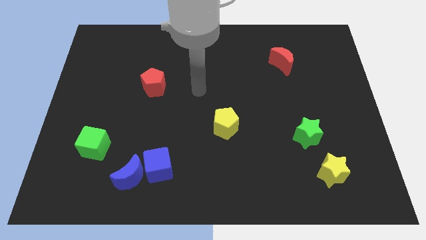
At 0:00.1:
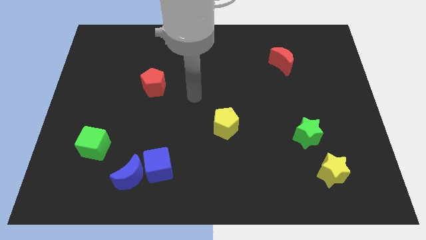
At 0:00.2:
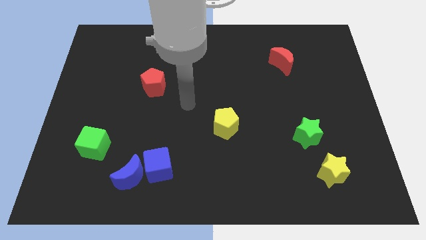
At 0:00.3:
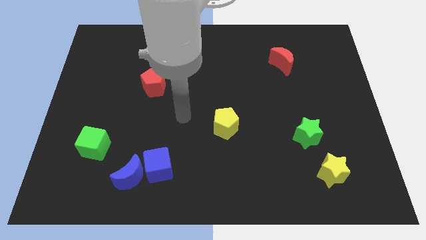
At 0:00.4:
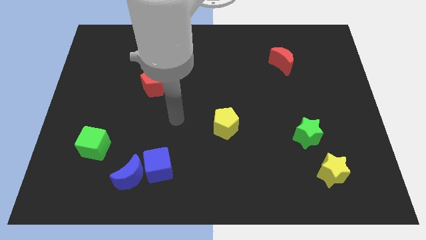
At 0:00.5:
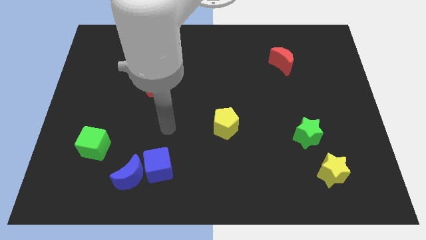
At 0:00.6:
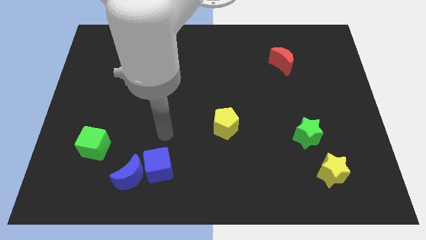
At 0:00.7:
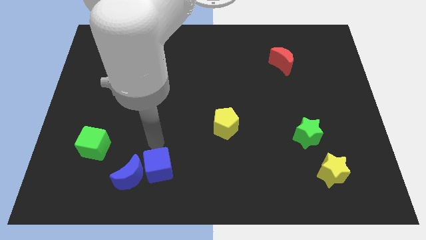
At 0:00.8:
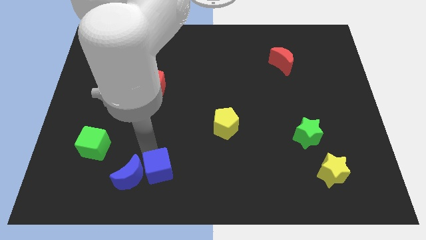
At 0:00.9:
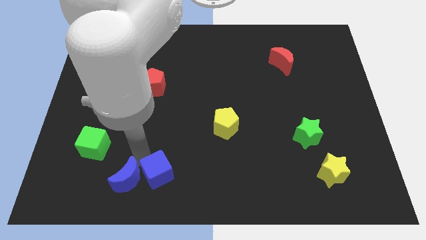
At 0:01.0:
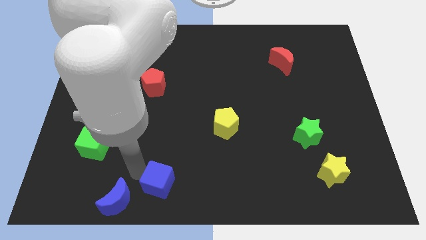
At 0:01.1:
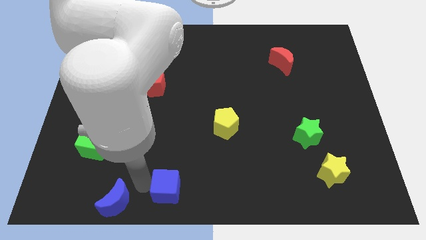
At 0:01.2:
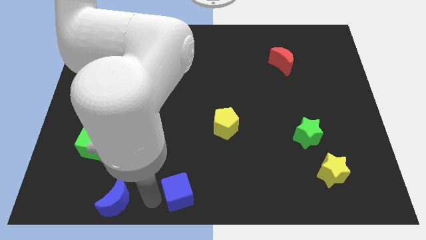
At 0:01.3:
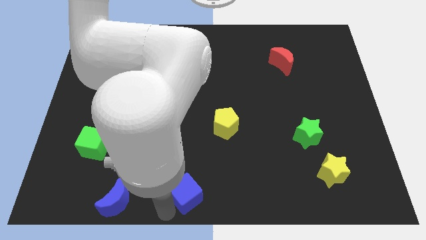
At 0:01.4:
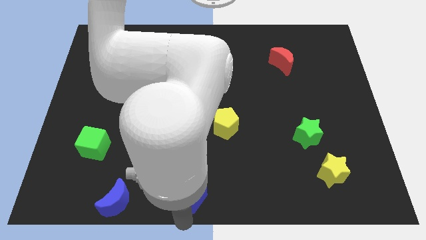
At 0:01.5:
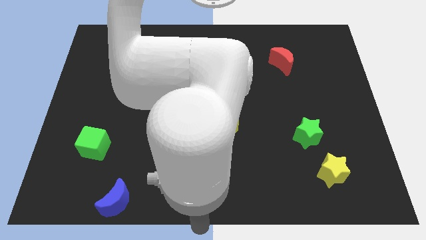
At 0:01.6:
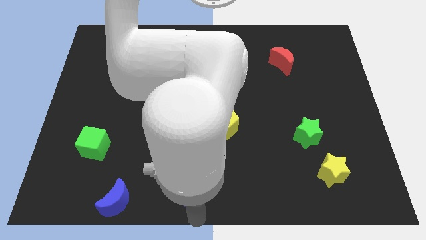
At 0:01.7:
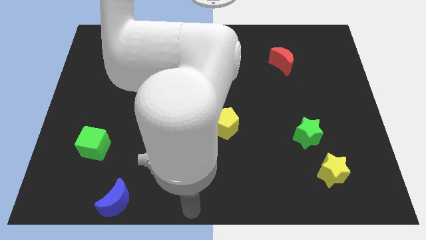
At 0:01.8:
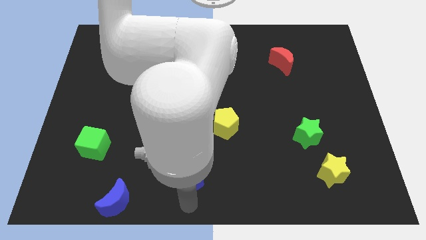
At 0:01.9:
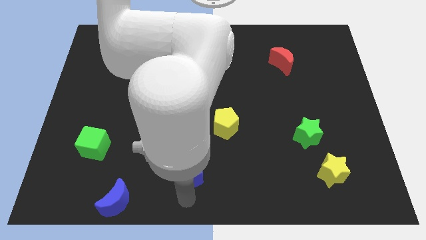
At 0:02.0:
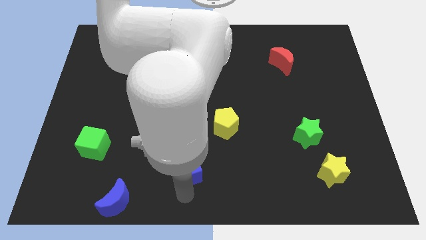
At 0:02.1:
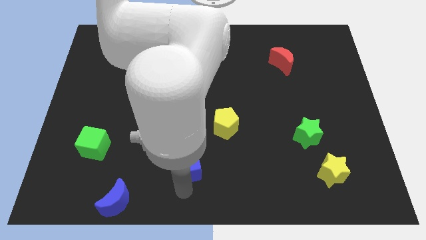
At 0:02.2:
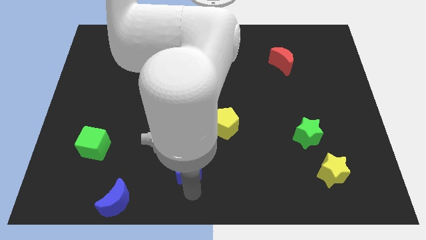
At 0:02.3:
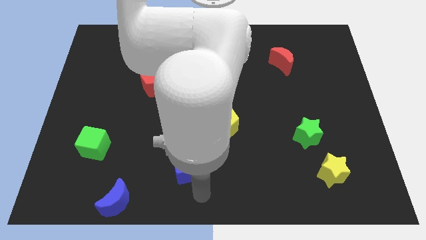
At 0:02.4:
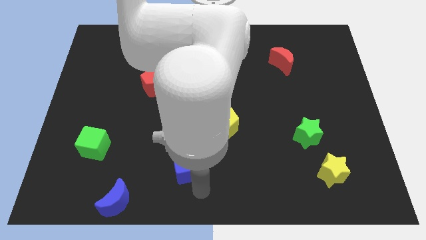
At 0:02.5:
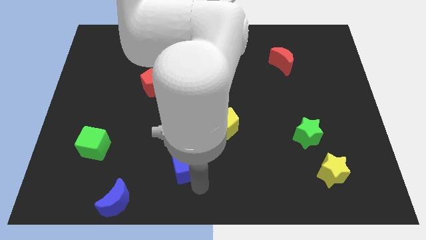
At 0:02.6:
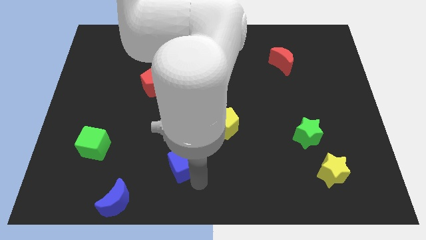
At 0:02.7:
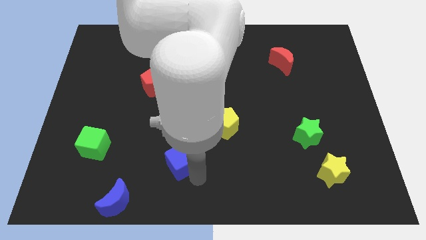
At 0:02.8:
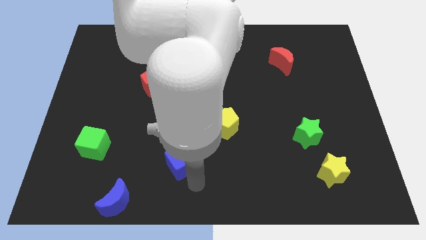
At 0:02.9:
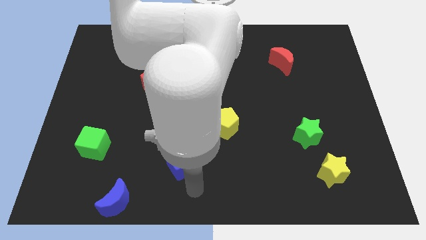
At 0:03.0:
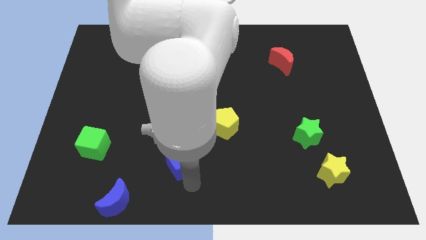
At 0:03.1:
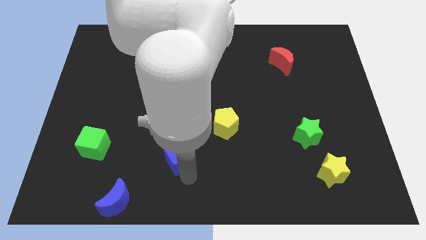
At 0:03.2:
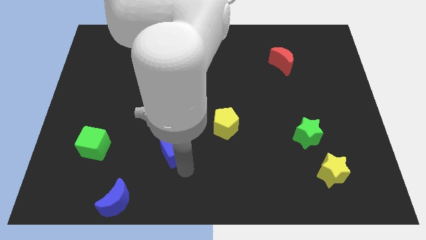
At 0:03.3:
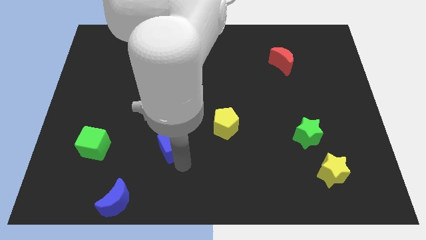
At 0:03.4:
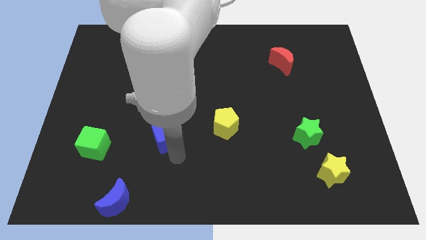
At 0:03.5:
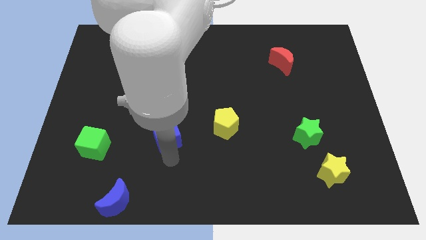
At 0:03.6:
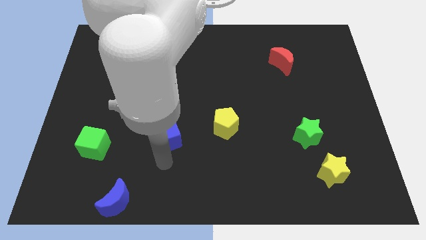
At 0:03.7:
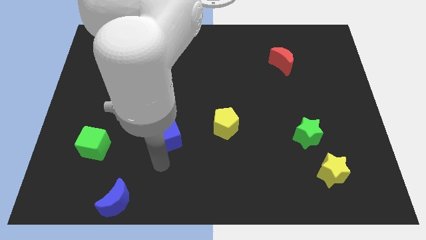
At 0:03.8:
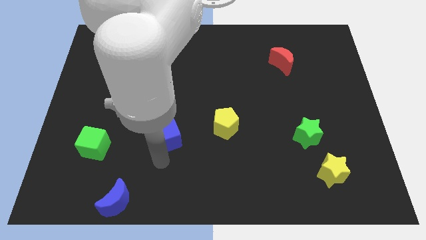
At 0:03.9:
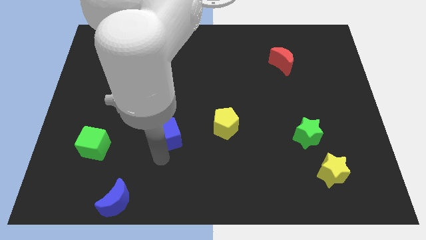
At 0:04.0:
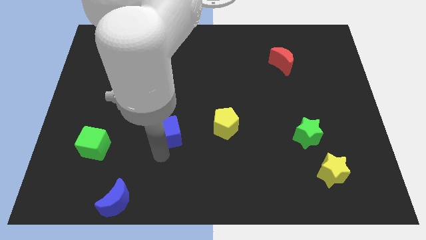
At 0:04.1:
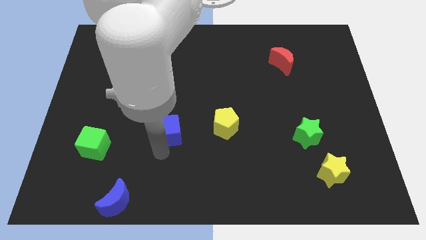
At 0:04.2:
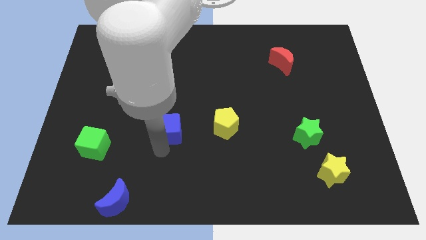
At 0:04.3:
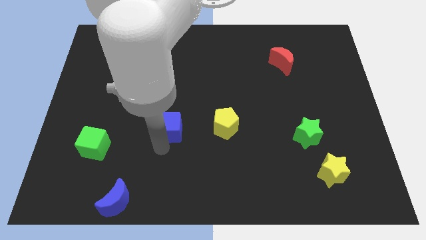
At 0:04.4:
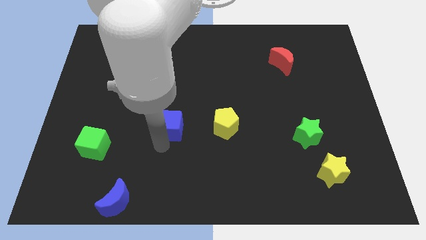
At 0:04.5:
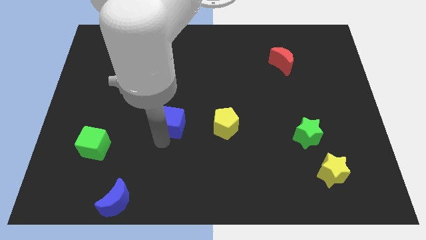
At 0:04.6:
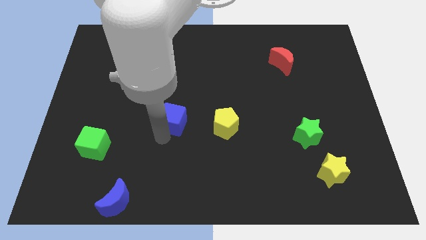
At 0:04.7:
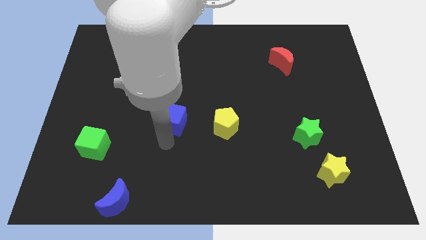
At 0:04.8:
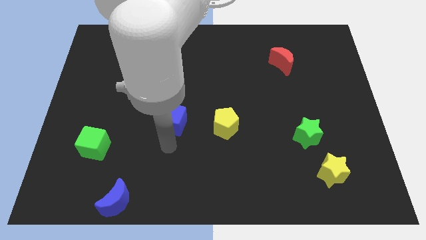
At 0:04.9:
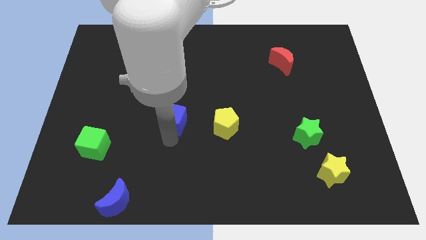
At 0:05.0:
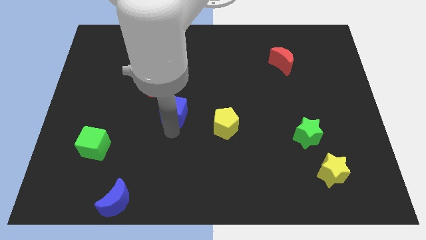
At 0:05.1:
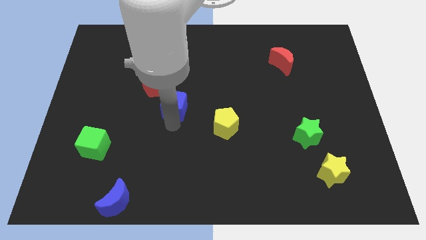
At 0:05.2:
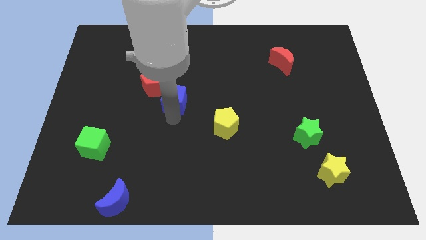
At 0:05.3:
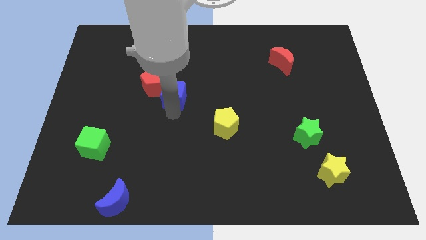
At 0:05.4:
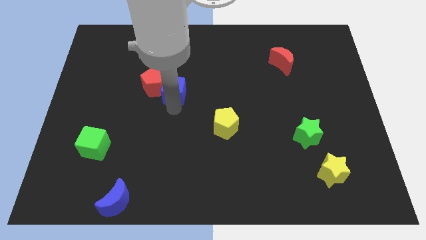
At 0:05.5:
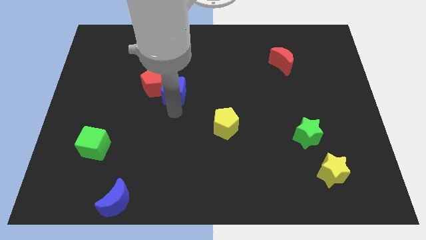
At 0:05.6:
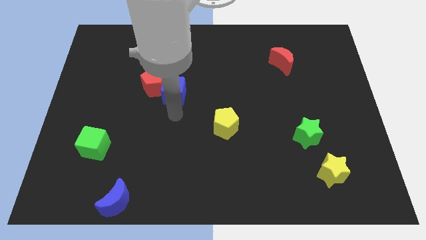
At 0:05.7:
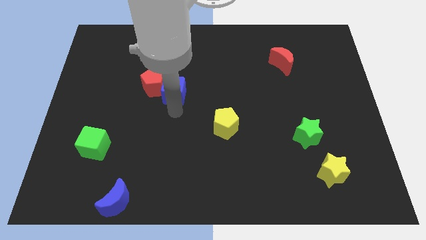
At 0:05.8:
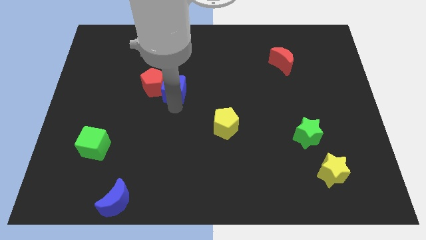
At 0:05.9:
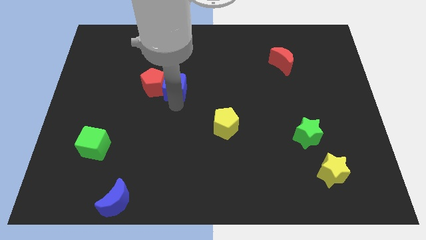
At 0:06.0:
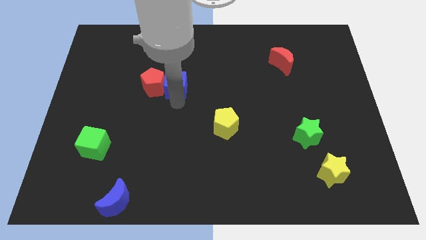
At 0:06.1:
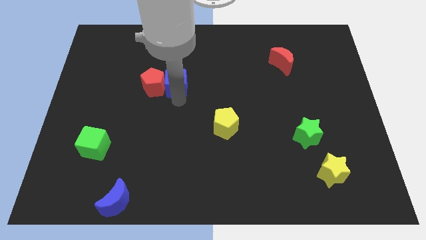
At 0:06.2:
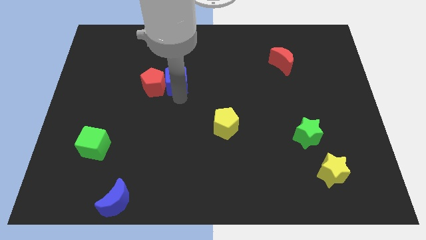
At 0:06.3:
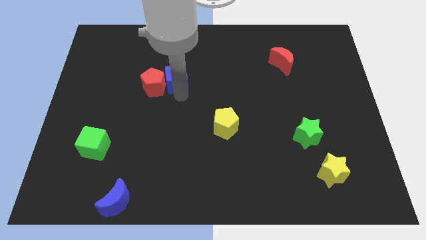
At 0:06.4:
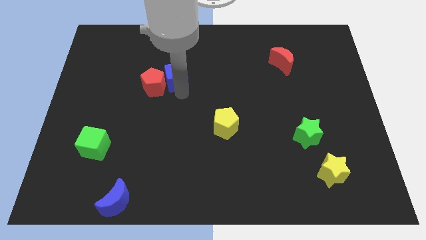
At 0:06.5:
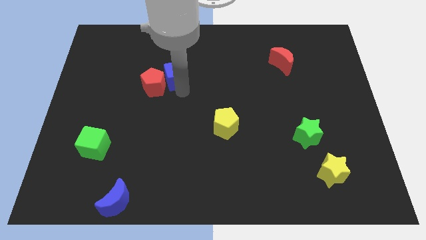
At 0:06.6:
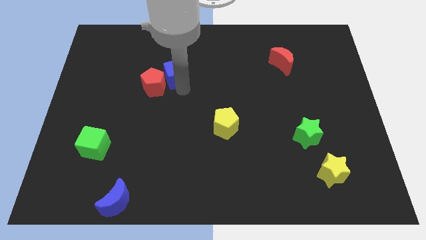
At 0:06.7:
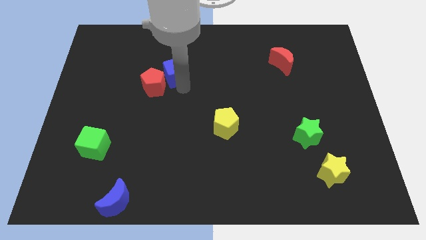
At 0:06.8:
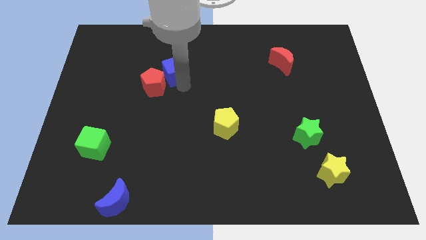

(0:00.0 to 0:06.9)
move the blue cube to the top side of the red pentagon

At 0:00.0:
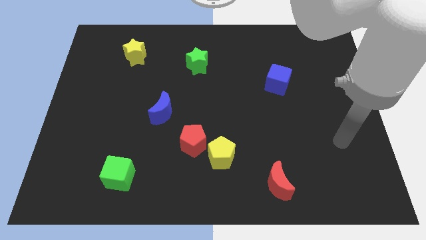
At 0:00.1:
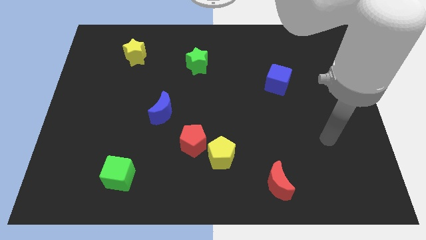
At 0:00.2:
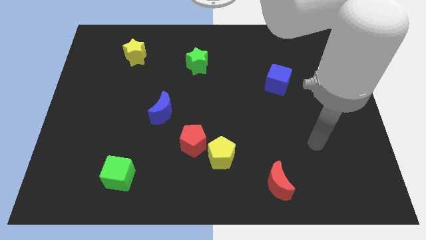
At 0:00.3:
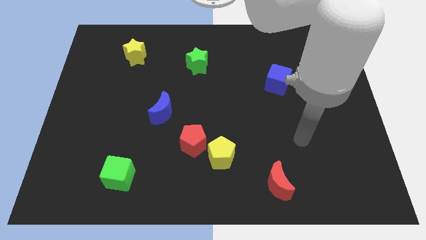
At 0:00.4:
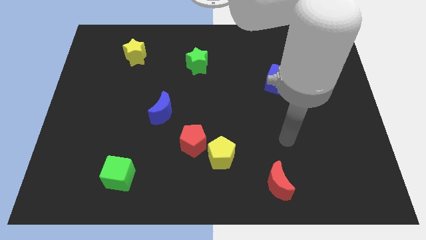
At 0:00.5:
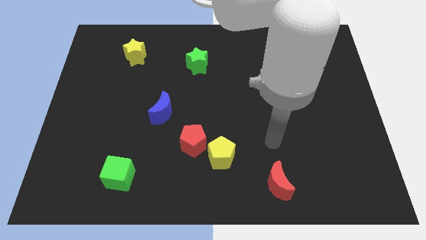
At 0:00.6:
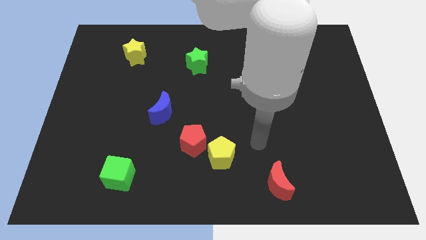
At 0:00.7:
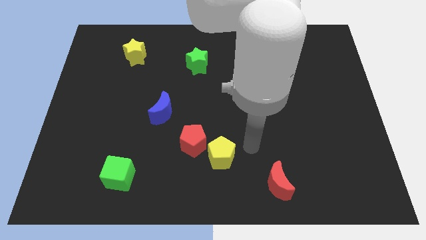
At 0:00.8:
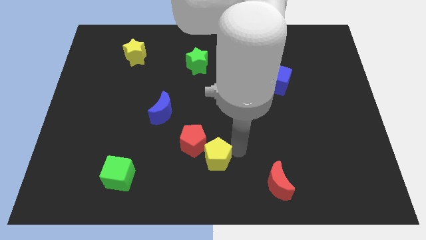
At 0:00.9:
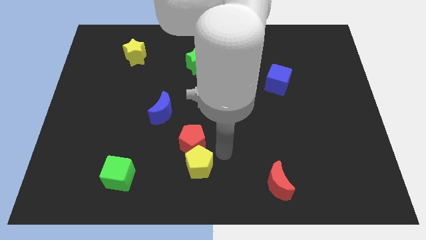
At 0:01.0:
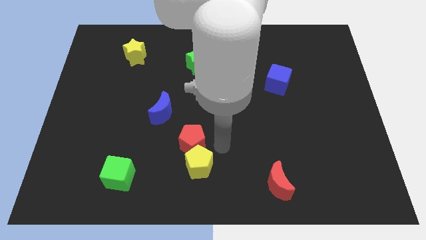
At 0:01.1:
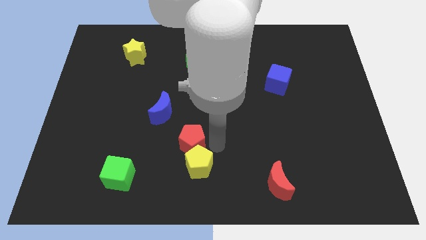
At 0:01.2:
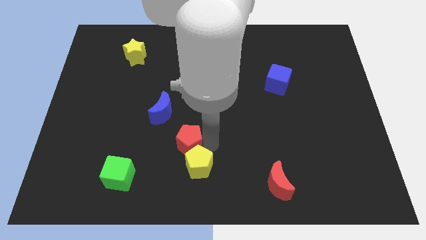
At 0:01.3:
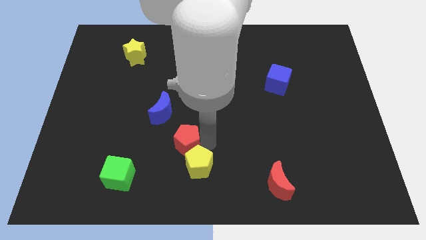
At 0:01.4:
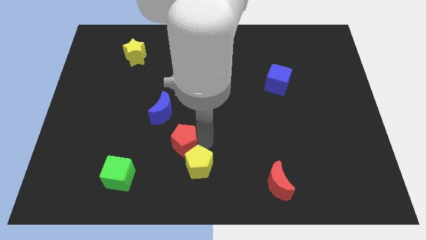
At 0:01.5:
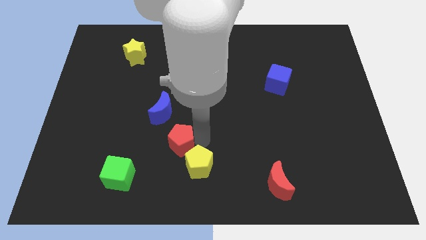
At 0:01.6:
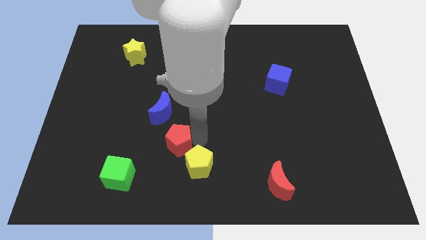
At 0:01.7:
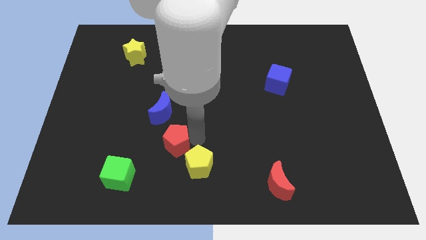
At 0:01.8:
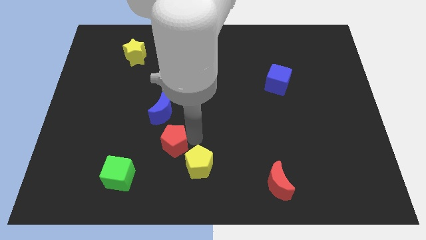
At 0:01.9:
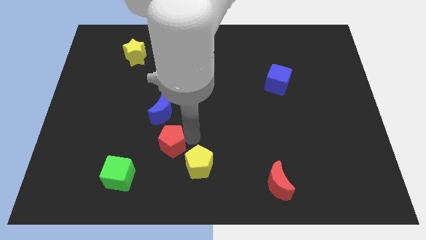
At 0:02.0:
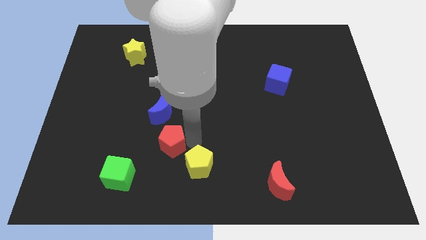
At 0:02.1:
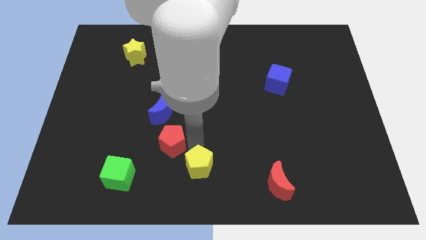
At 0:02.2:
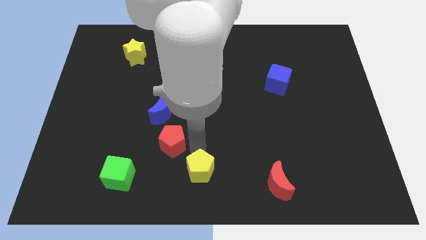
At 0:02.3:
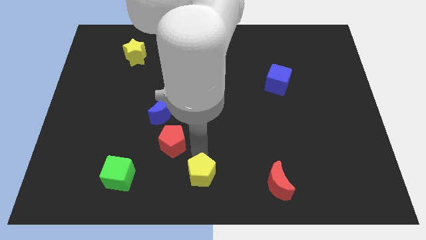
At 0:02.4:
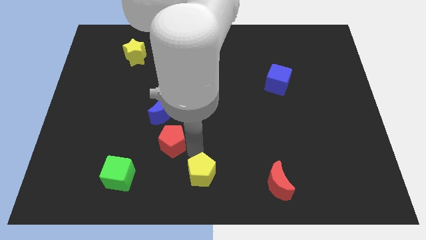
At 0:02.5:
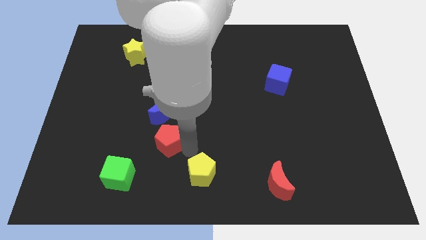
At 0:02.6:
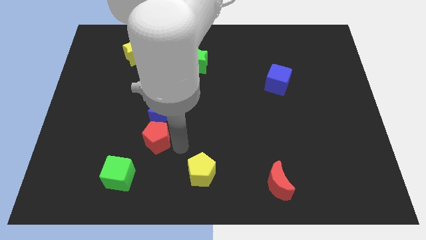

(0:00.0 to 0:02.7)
slide the red pentagon diagonally down and to the left of the blue moon
